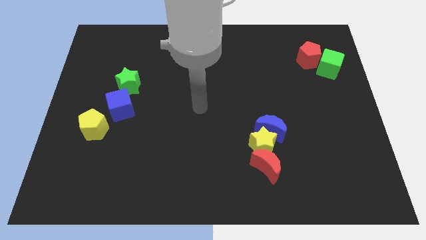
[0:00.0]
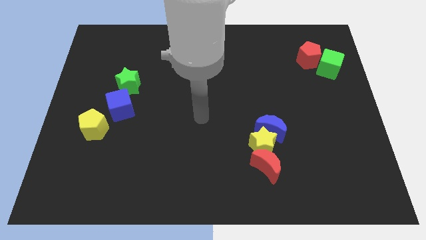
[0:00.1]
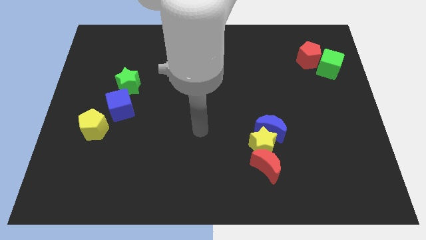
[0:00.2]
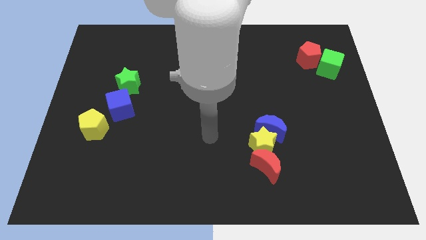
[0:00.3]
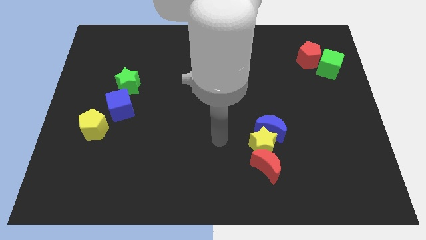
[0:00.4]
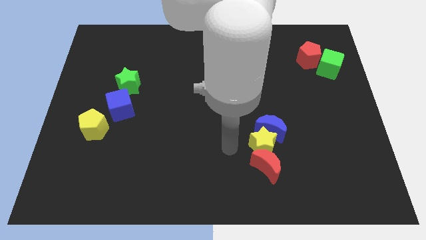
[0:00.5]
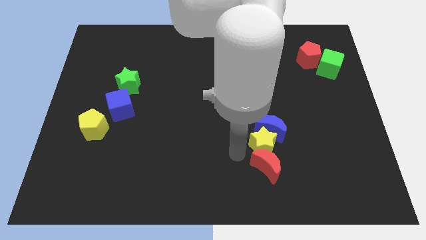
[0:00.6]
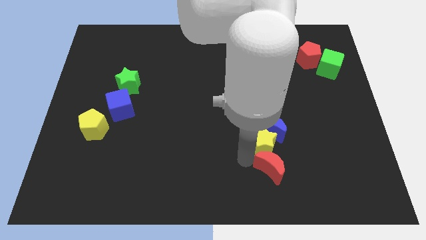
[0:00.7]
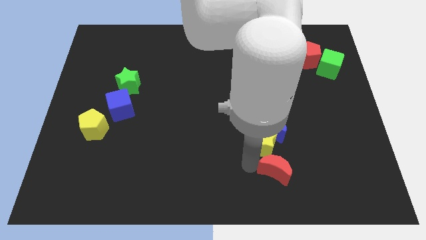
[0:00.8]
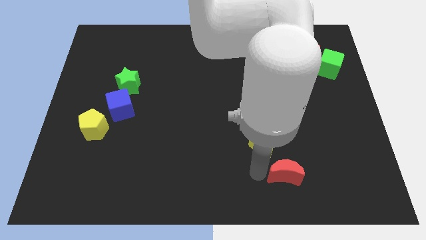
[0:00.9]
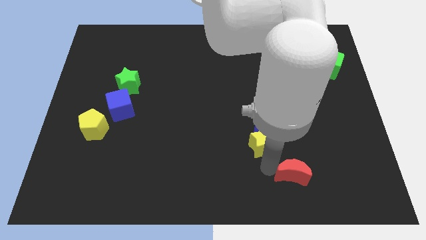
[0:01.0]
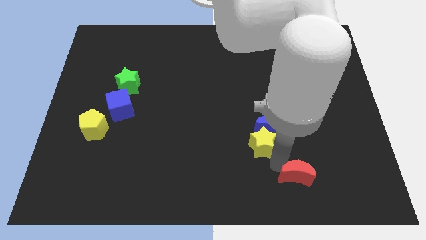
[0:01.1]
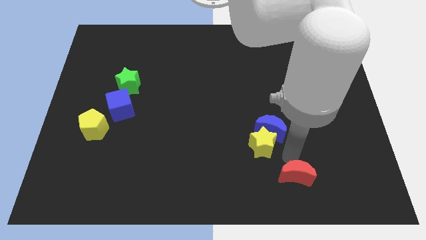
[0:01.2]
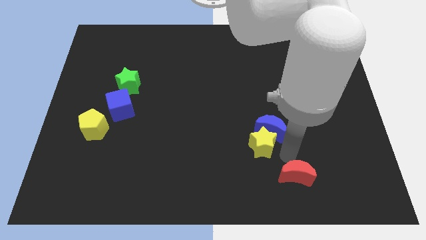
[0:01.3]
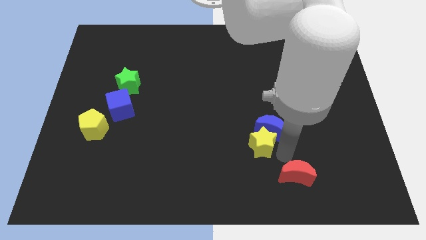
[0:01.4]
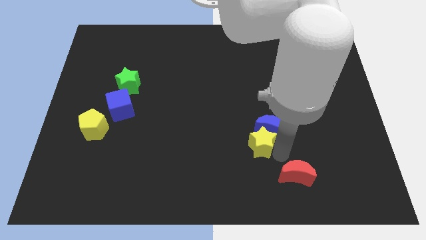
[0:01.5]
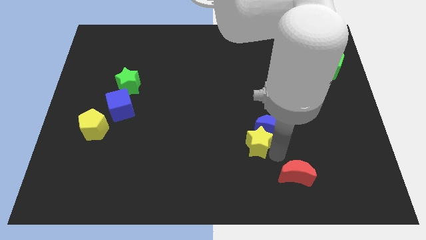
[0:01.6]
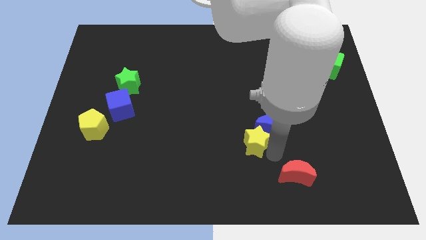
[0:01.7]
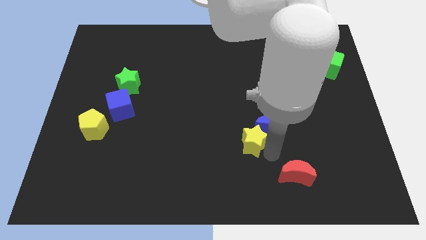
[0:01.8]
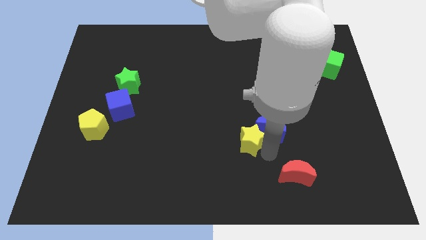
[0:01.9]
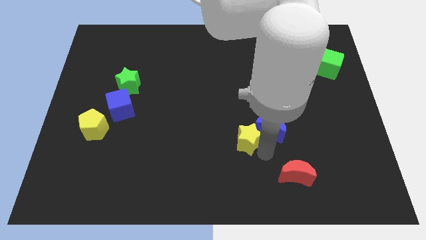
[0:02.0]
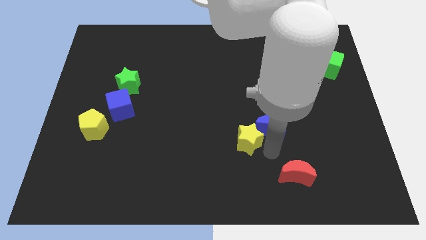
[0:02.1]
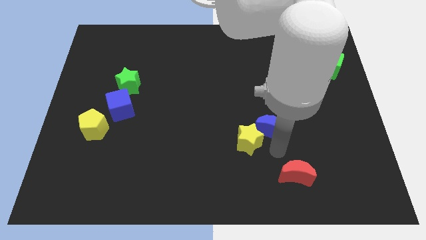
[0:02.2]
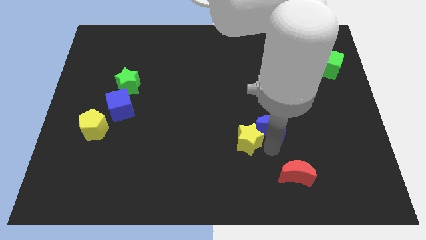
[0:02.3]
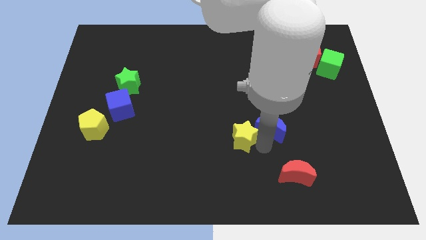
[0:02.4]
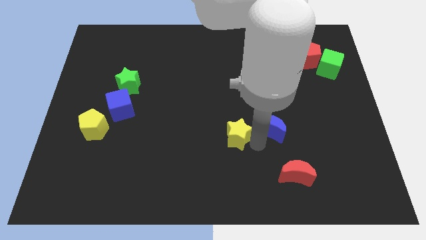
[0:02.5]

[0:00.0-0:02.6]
pull the yellow star apart from the blue moon and red moon

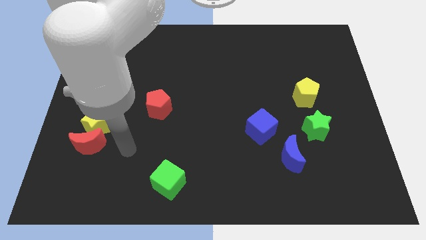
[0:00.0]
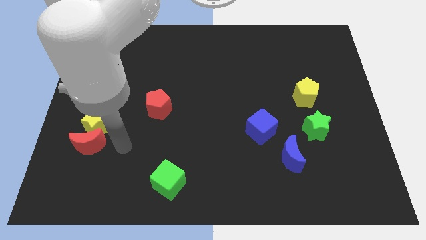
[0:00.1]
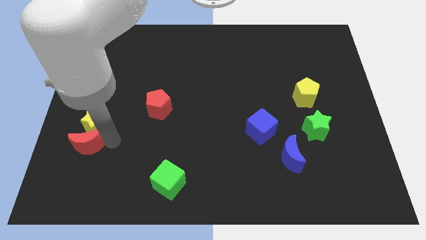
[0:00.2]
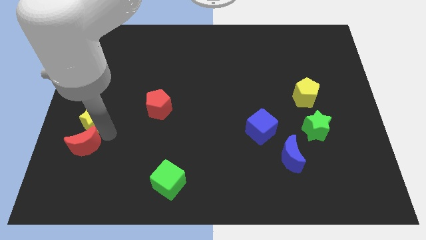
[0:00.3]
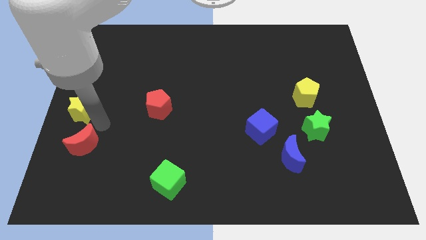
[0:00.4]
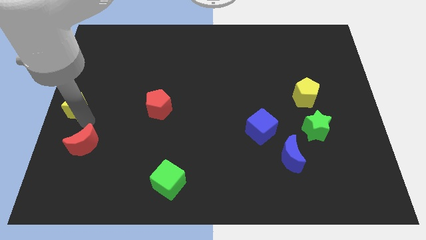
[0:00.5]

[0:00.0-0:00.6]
move the red moon away from the yellow star

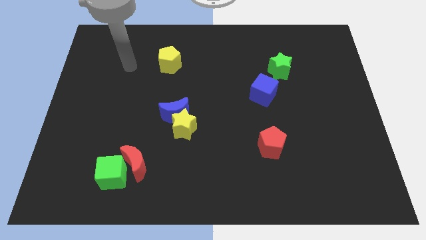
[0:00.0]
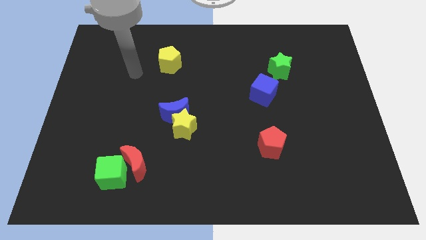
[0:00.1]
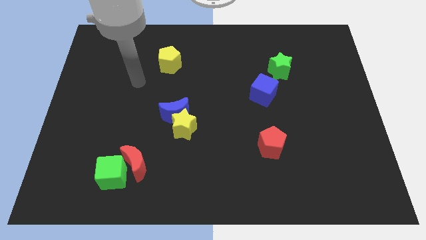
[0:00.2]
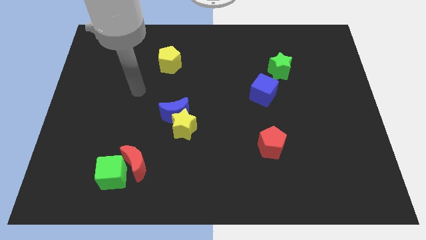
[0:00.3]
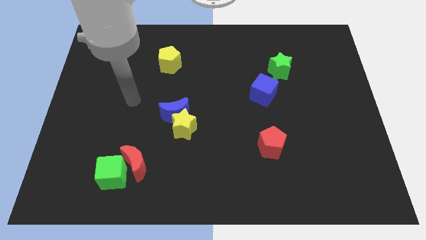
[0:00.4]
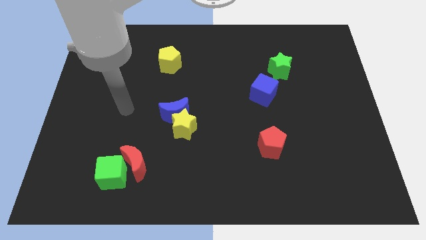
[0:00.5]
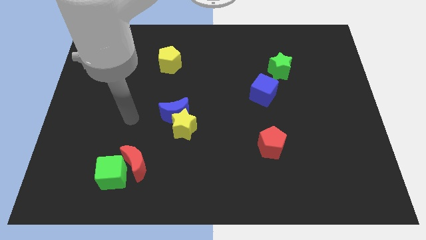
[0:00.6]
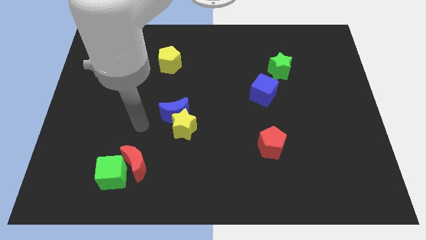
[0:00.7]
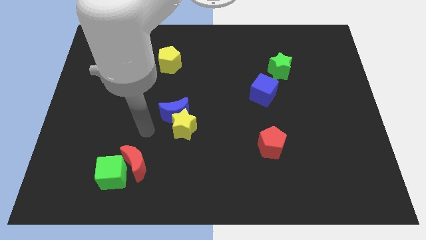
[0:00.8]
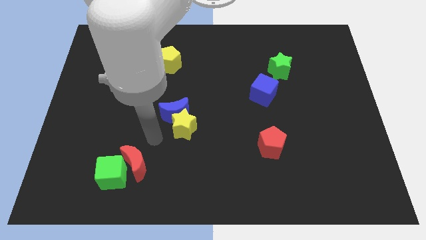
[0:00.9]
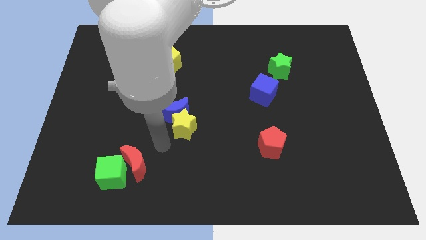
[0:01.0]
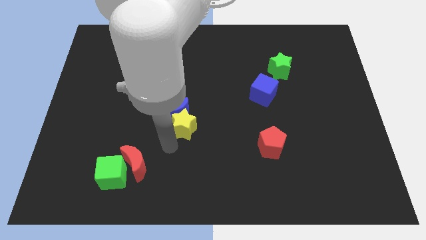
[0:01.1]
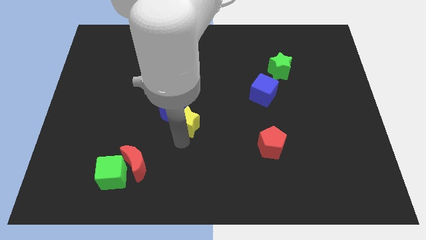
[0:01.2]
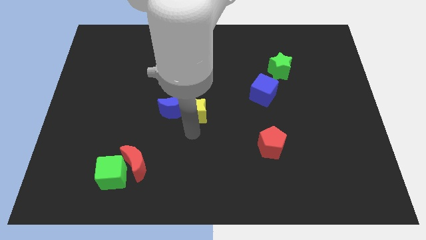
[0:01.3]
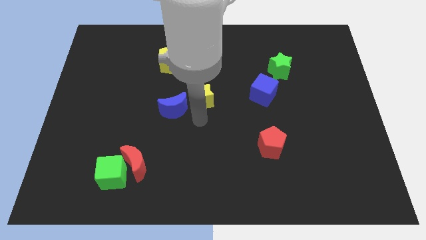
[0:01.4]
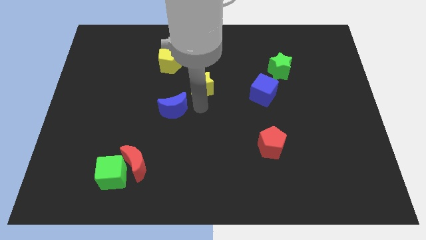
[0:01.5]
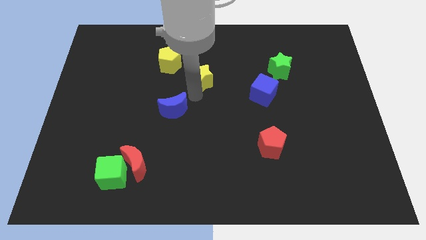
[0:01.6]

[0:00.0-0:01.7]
separate the blue moon from the yellow star

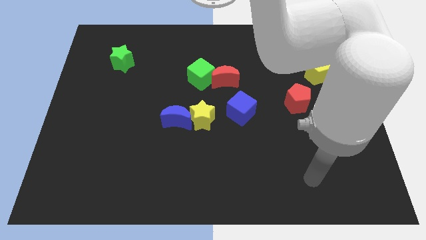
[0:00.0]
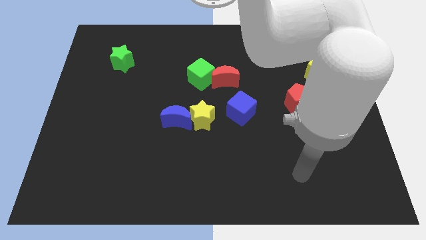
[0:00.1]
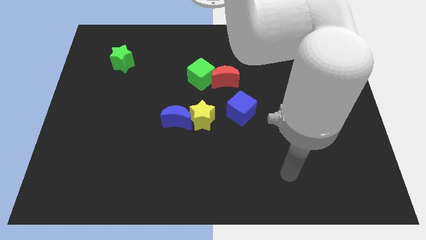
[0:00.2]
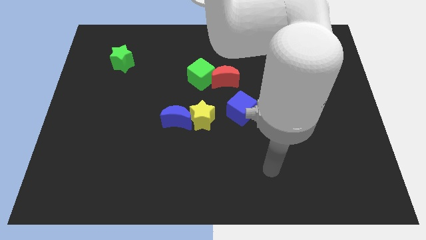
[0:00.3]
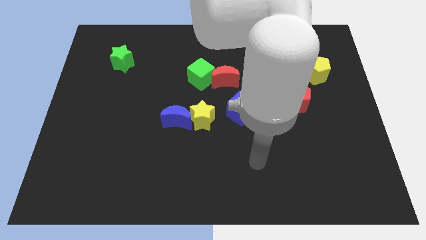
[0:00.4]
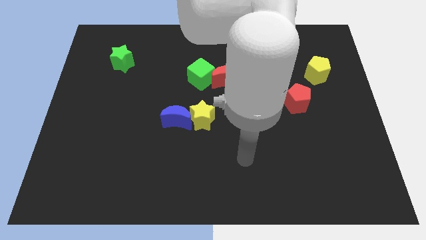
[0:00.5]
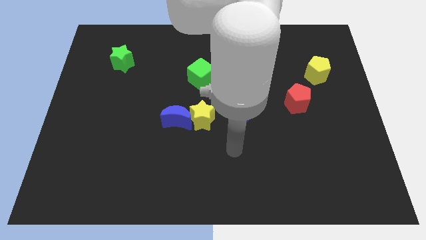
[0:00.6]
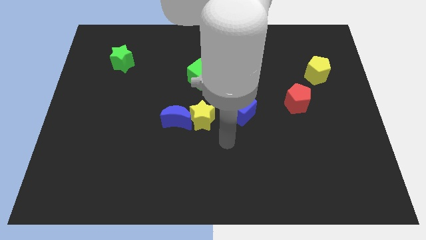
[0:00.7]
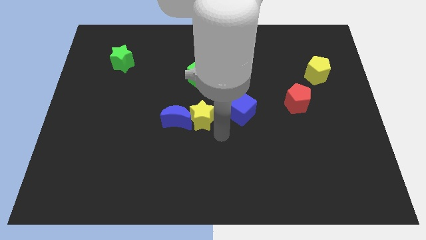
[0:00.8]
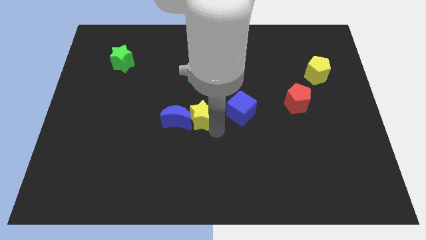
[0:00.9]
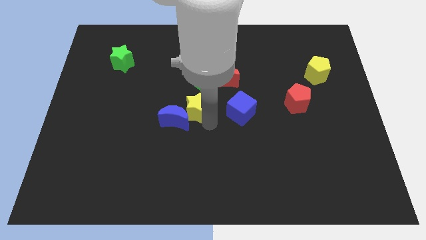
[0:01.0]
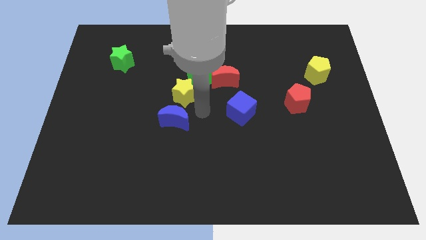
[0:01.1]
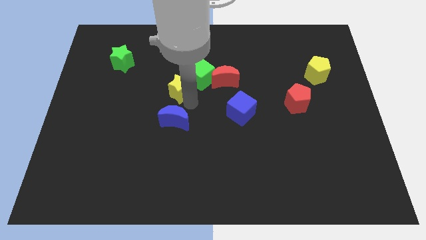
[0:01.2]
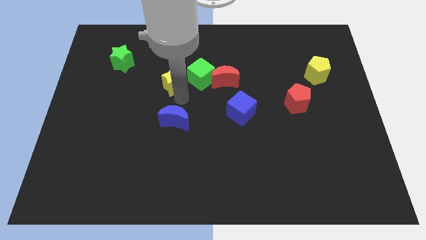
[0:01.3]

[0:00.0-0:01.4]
pull the blue moon apart from the yellow star

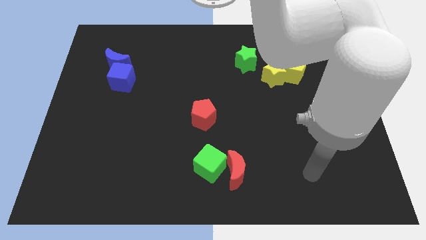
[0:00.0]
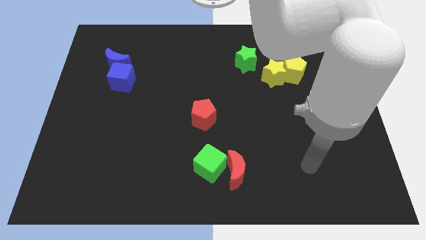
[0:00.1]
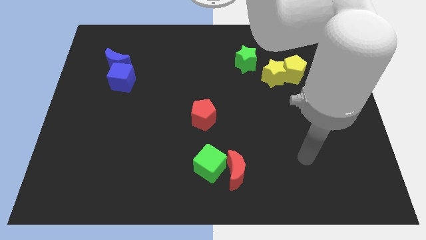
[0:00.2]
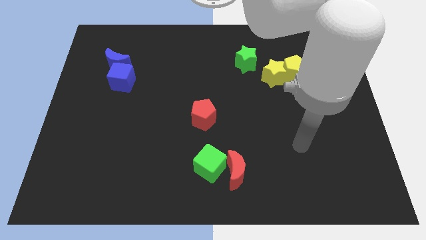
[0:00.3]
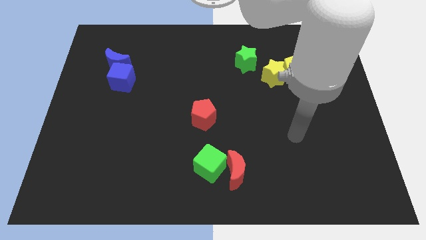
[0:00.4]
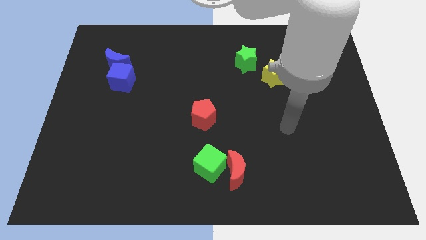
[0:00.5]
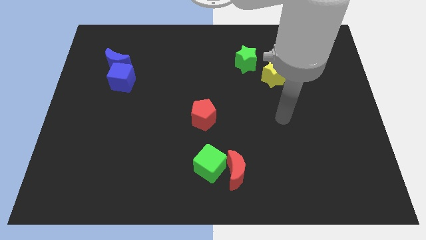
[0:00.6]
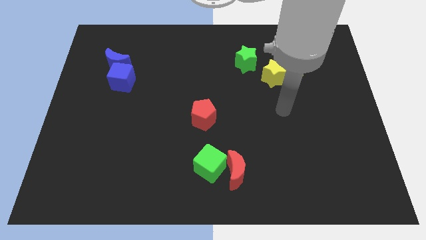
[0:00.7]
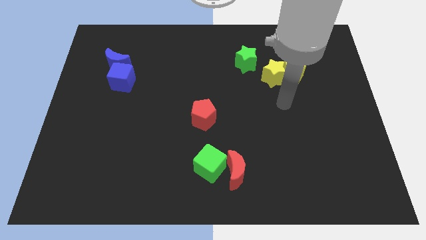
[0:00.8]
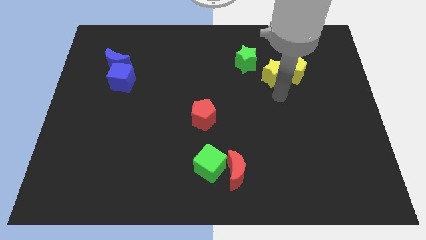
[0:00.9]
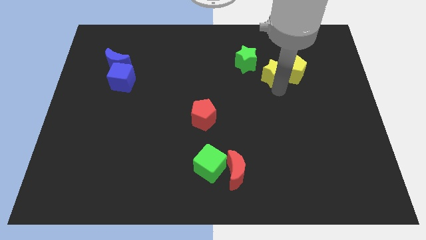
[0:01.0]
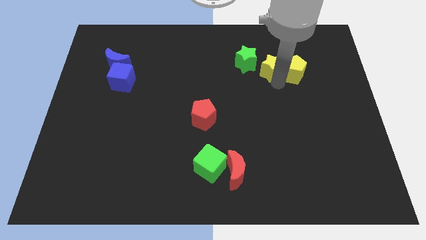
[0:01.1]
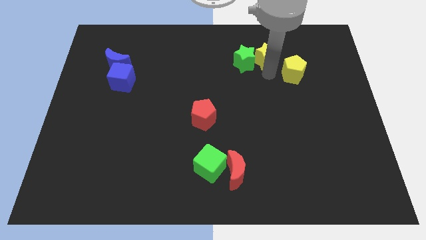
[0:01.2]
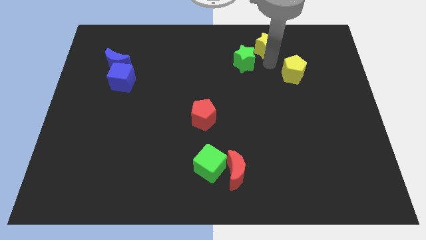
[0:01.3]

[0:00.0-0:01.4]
move the yellow pentagon away from the yellow star

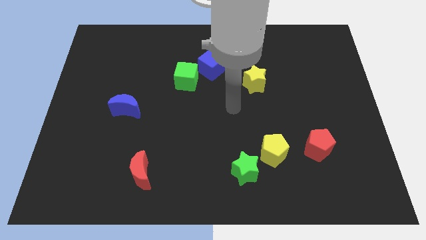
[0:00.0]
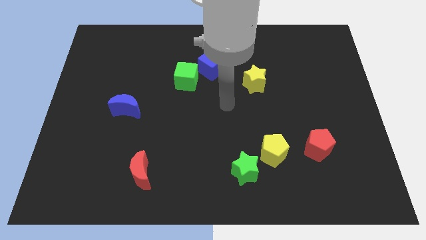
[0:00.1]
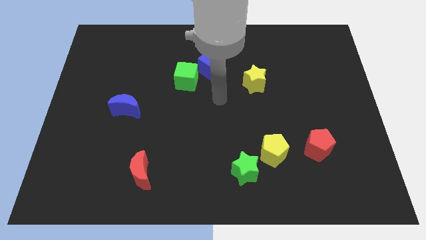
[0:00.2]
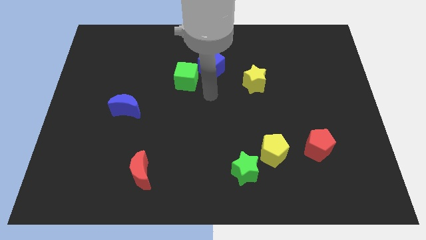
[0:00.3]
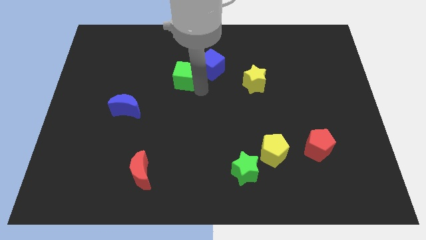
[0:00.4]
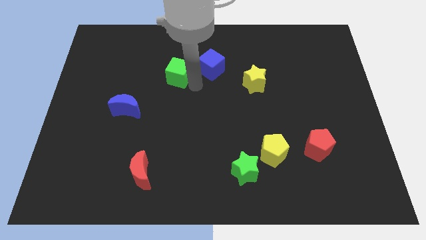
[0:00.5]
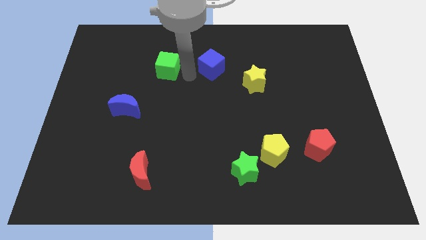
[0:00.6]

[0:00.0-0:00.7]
separate the blue cube from the green cube

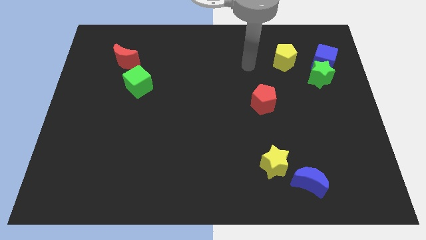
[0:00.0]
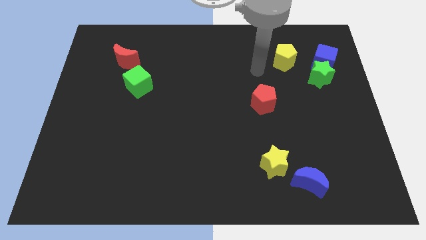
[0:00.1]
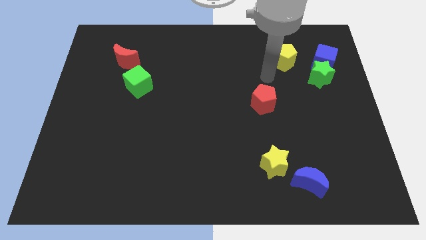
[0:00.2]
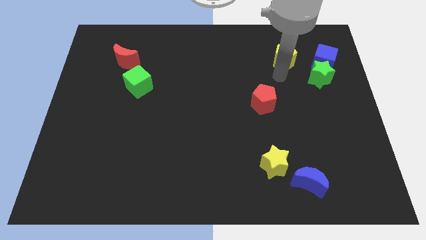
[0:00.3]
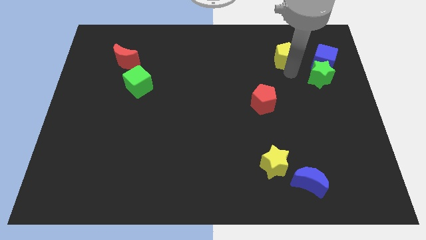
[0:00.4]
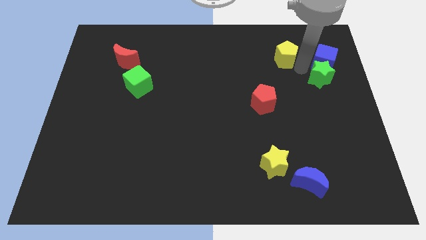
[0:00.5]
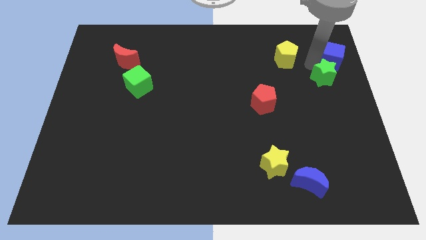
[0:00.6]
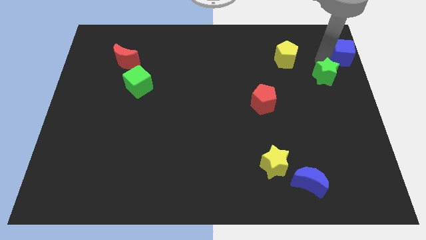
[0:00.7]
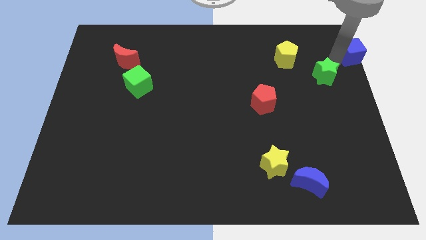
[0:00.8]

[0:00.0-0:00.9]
move the green star away from the blue cube

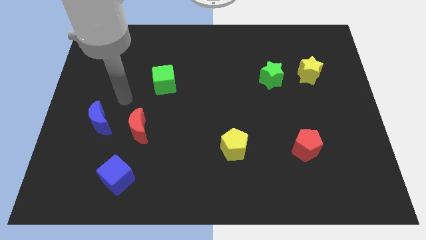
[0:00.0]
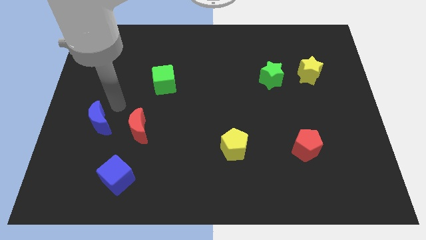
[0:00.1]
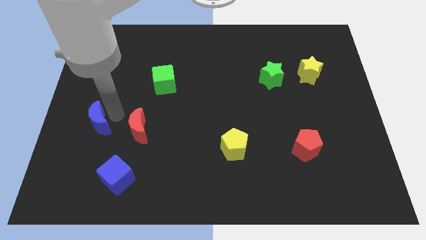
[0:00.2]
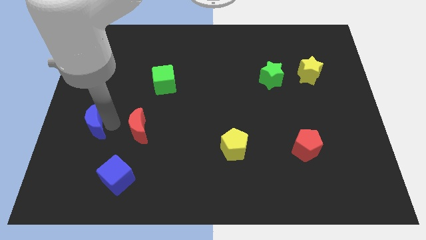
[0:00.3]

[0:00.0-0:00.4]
pull the red moon apart from the blue moon
